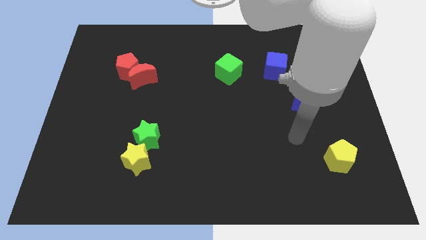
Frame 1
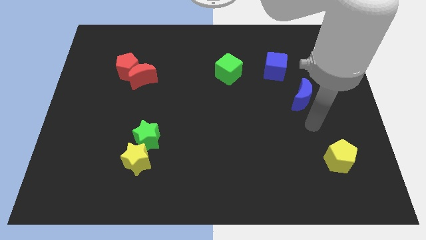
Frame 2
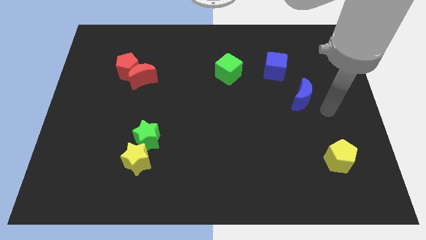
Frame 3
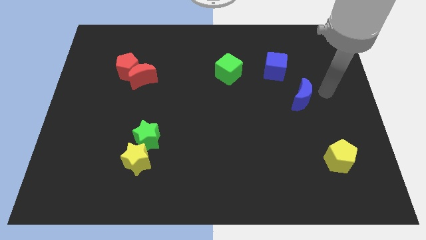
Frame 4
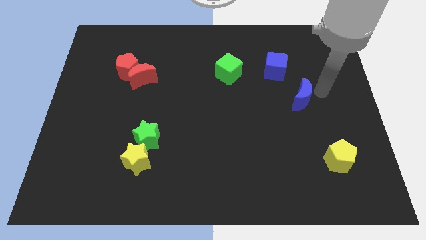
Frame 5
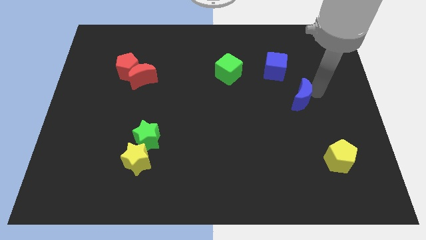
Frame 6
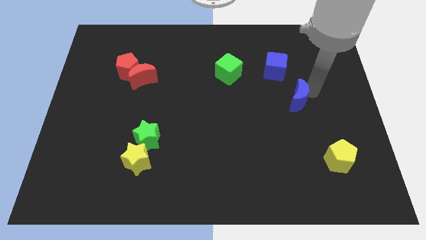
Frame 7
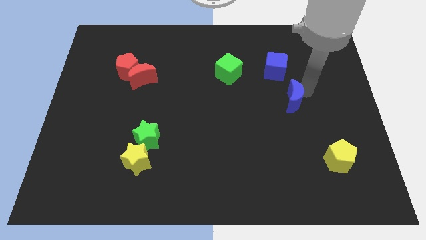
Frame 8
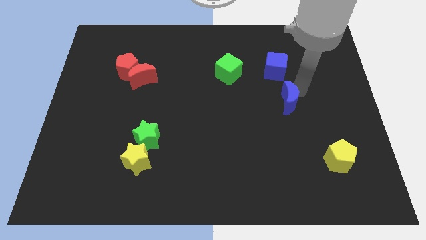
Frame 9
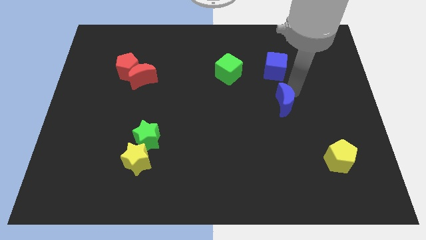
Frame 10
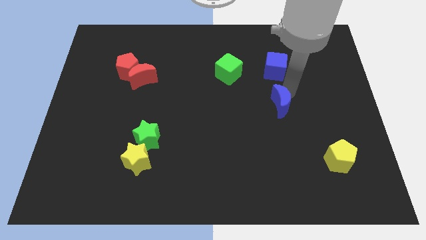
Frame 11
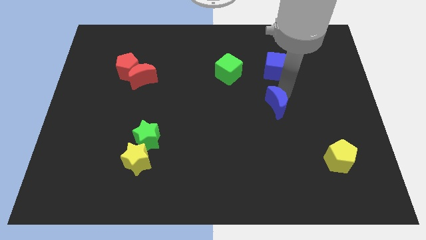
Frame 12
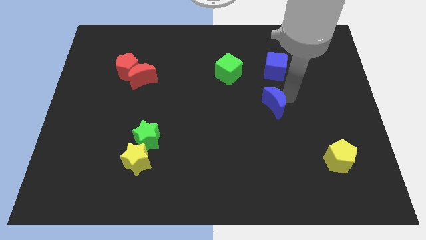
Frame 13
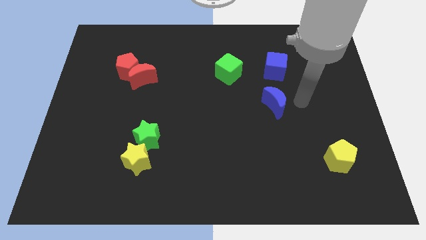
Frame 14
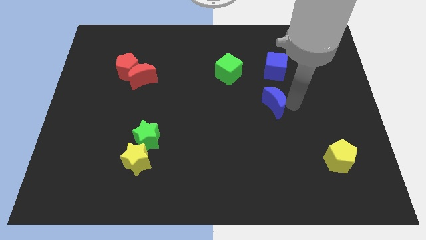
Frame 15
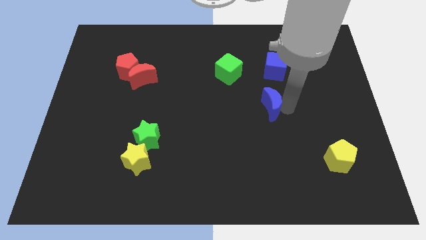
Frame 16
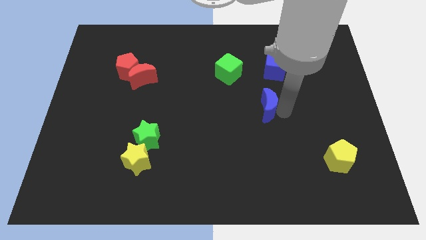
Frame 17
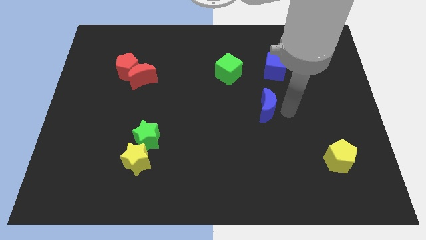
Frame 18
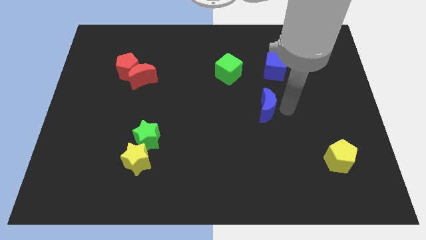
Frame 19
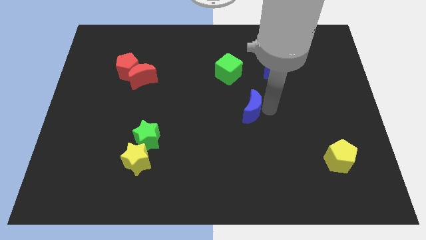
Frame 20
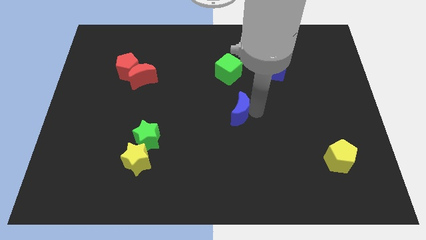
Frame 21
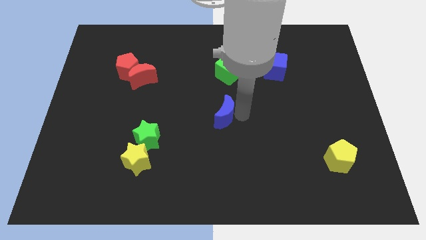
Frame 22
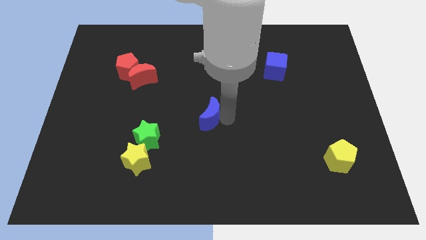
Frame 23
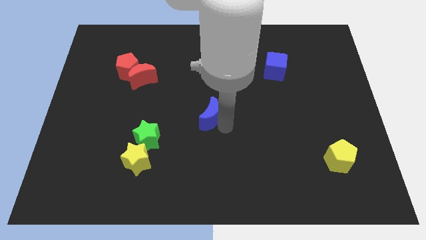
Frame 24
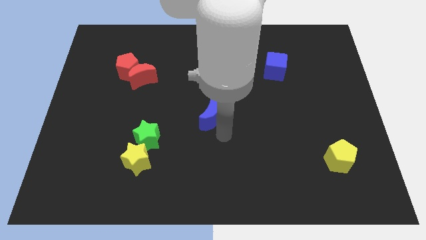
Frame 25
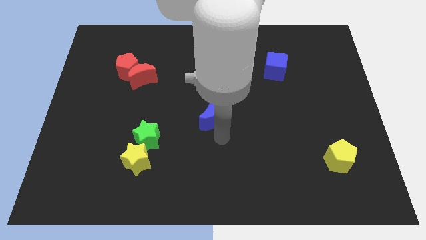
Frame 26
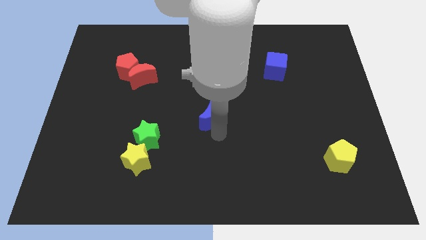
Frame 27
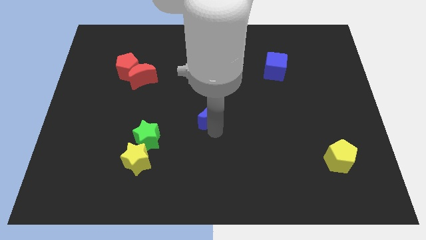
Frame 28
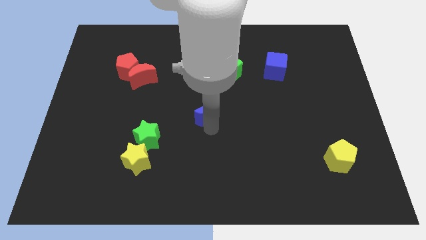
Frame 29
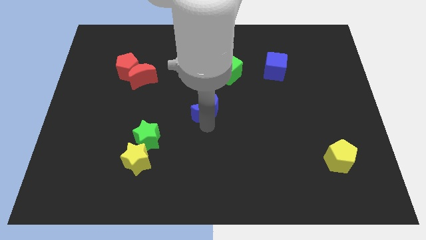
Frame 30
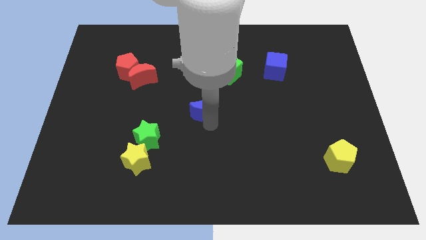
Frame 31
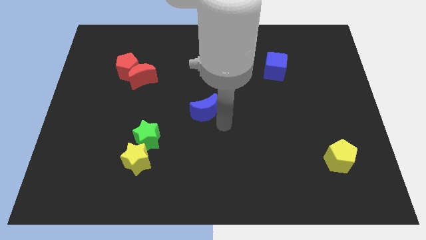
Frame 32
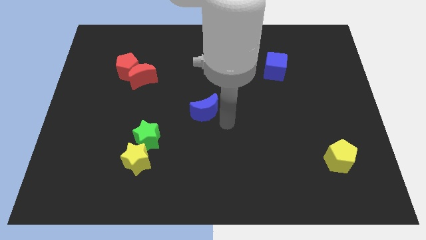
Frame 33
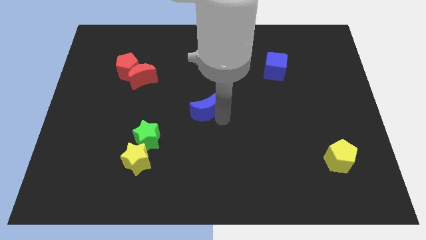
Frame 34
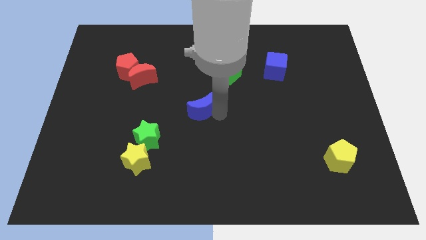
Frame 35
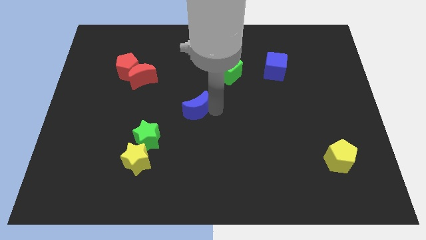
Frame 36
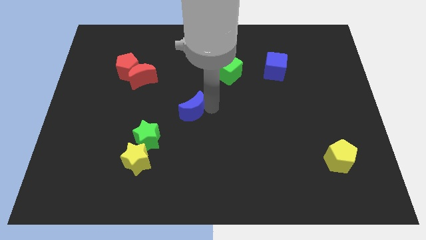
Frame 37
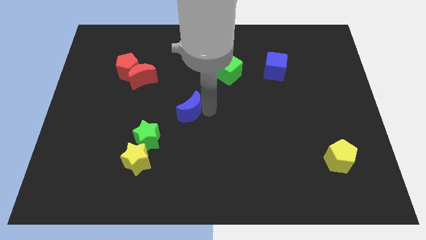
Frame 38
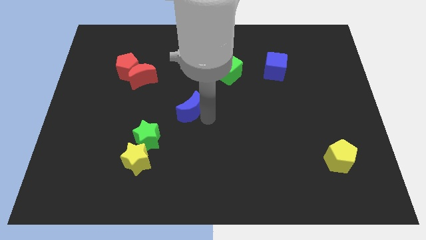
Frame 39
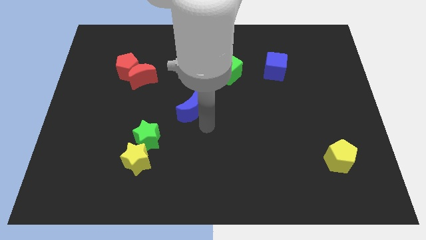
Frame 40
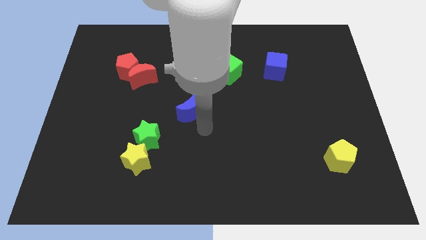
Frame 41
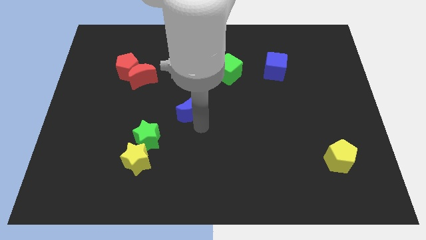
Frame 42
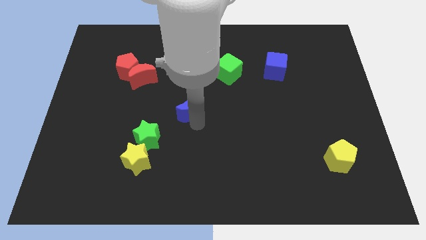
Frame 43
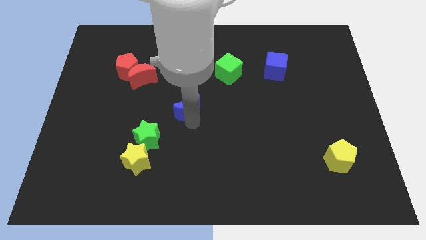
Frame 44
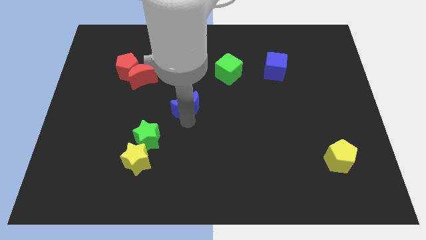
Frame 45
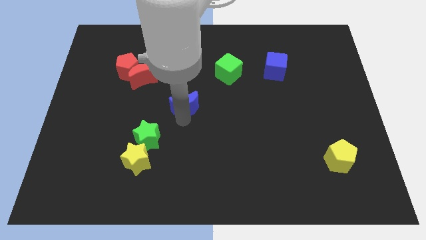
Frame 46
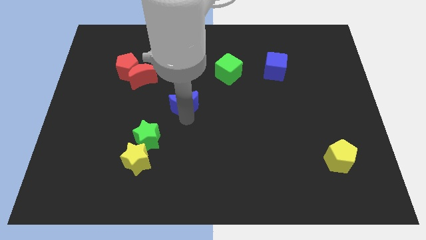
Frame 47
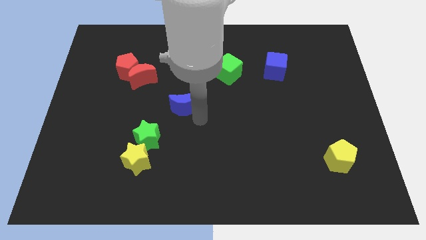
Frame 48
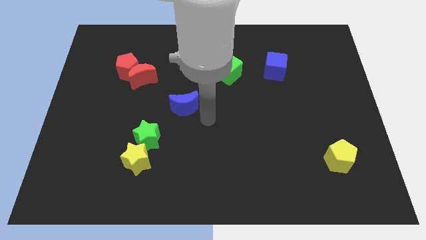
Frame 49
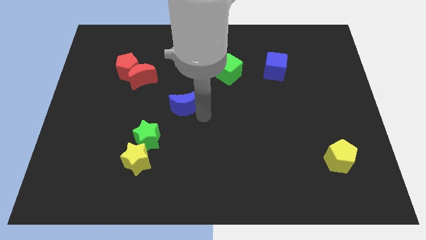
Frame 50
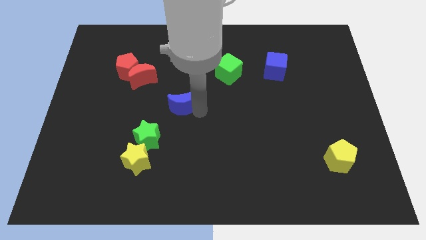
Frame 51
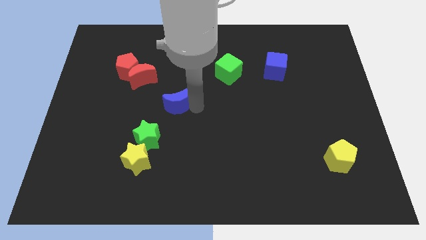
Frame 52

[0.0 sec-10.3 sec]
put the blue moon to the bottom right side of the red moon

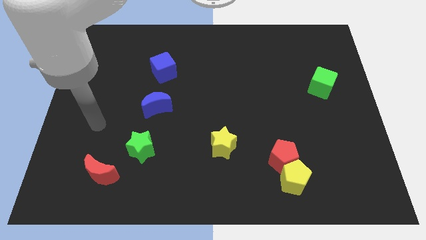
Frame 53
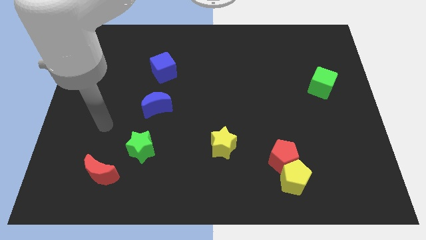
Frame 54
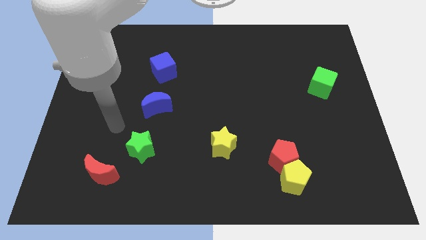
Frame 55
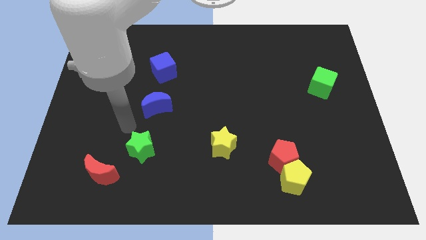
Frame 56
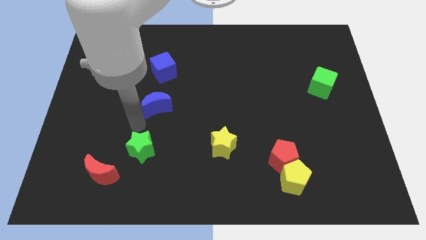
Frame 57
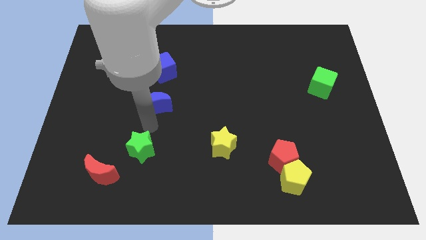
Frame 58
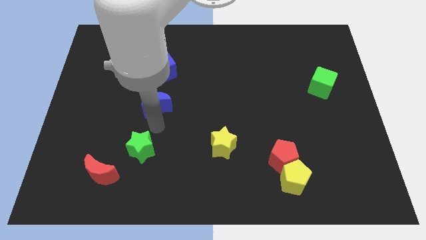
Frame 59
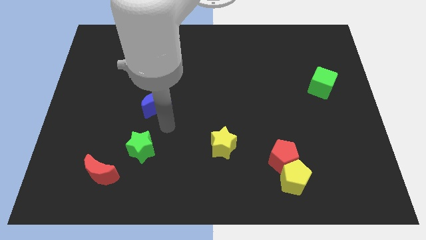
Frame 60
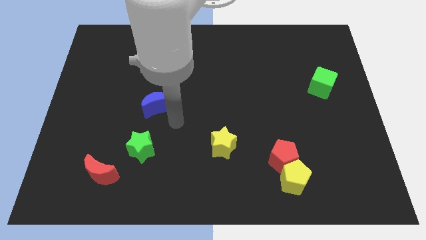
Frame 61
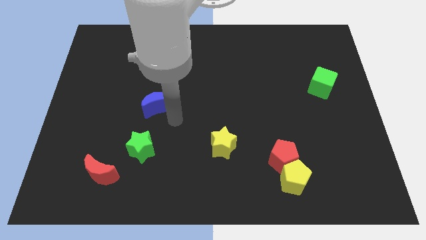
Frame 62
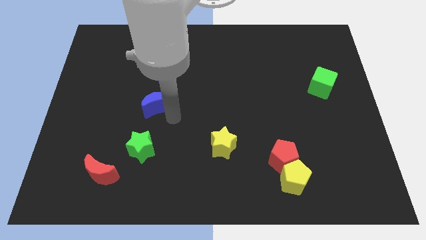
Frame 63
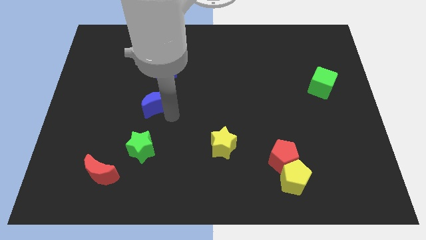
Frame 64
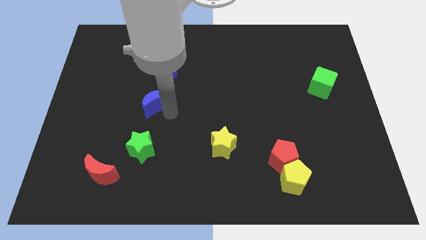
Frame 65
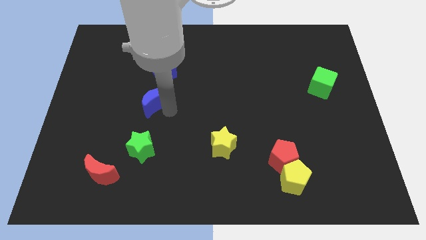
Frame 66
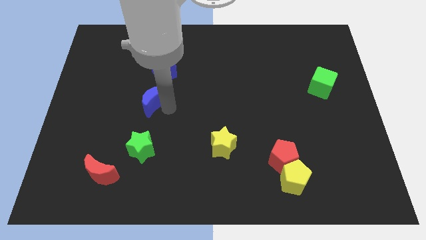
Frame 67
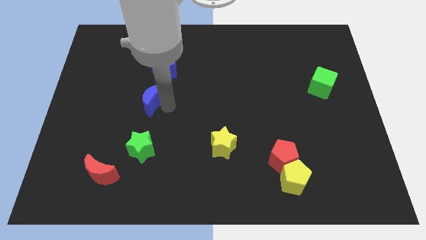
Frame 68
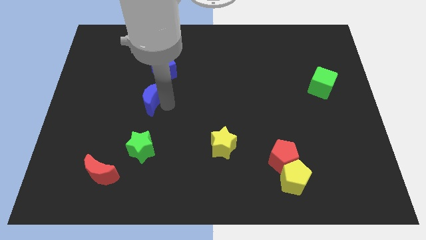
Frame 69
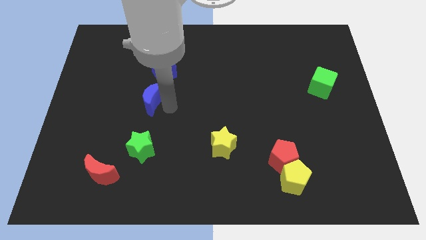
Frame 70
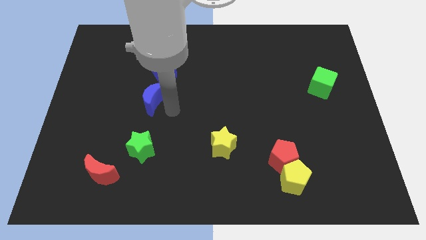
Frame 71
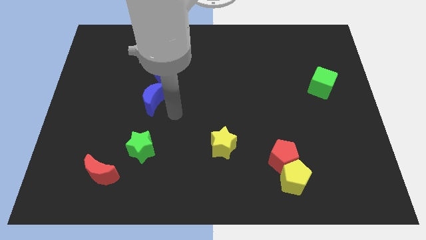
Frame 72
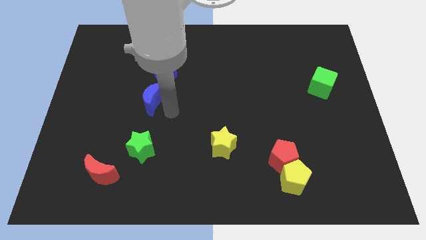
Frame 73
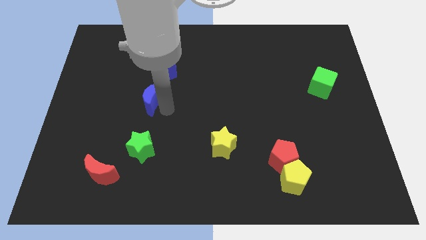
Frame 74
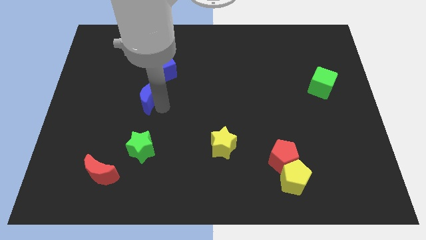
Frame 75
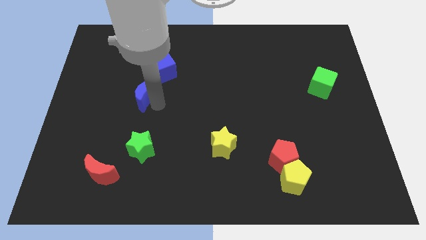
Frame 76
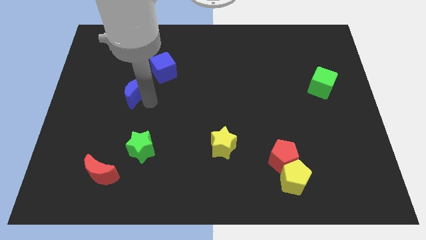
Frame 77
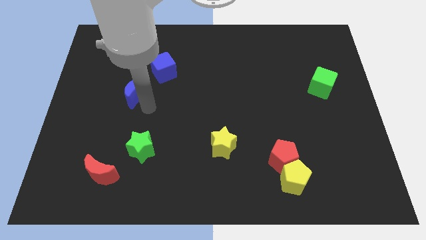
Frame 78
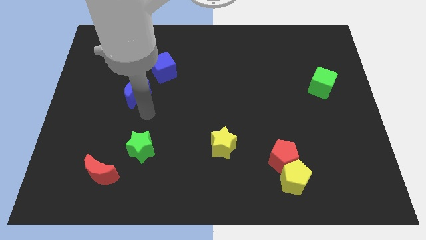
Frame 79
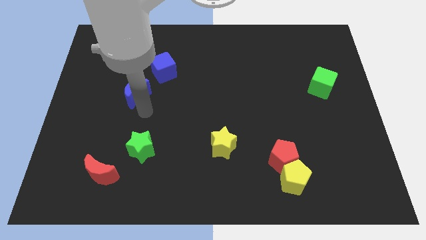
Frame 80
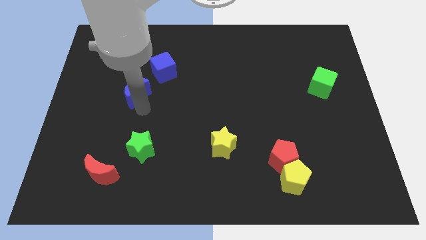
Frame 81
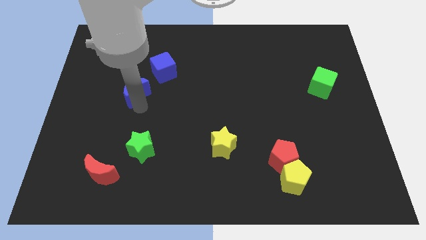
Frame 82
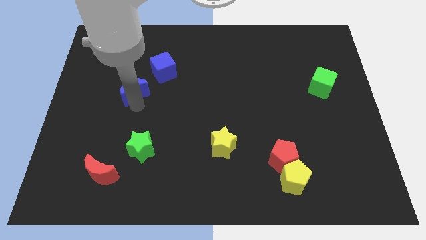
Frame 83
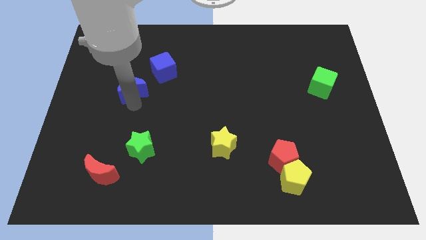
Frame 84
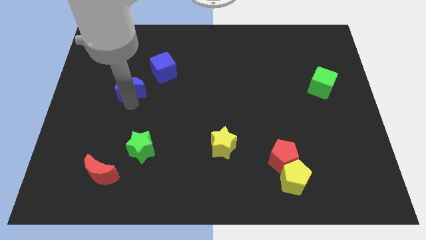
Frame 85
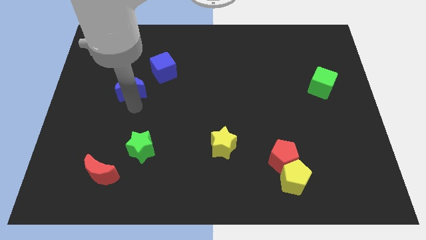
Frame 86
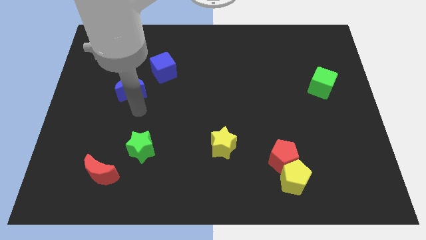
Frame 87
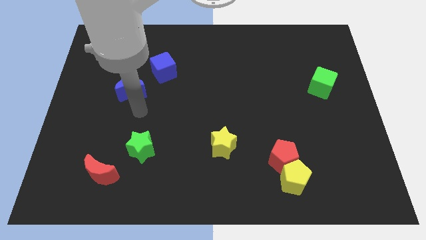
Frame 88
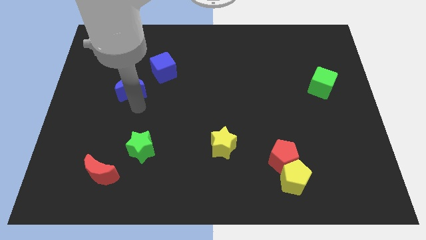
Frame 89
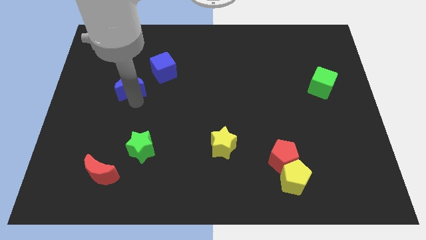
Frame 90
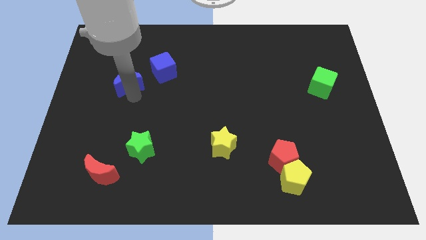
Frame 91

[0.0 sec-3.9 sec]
put the blue moon to the left side of the blue cube
